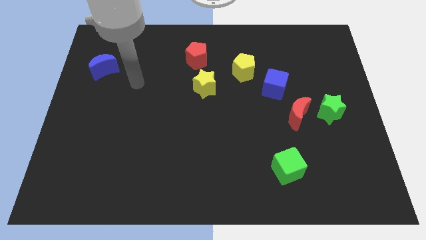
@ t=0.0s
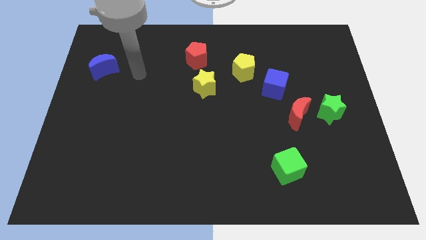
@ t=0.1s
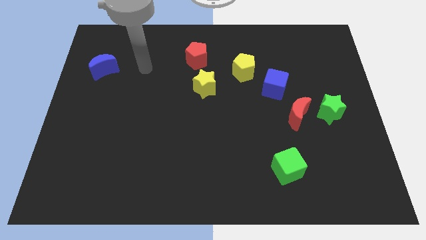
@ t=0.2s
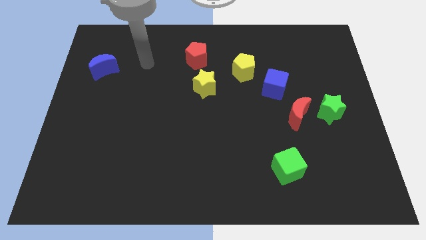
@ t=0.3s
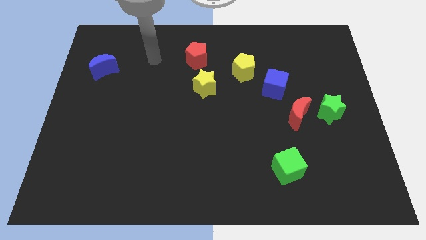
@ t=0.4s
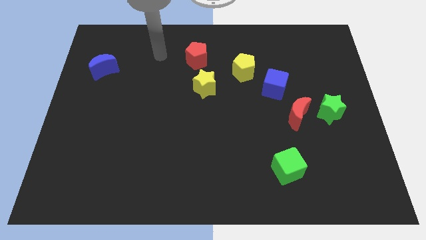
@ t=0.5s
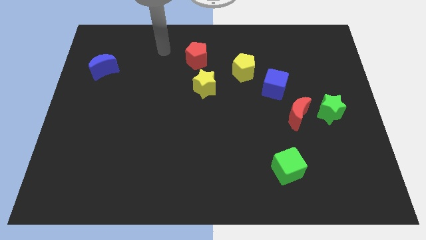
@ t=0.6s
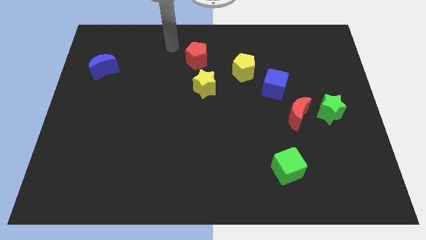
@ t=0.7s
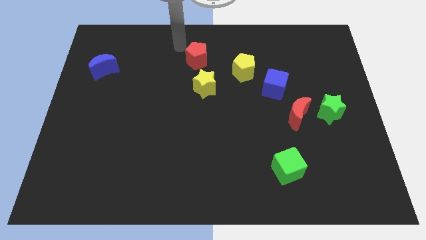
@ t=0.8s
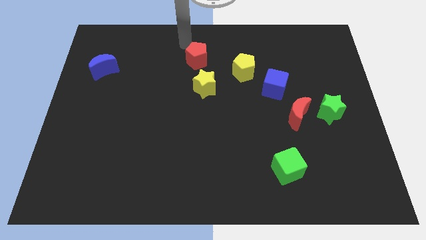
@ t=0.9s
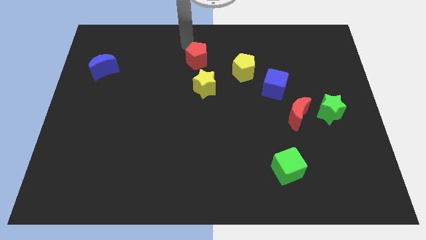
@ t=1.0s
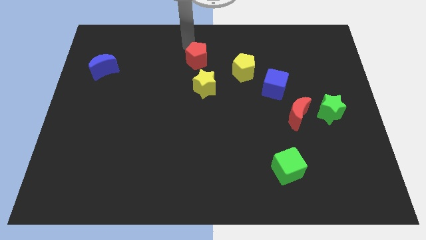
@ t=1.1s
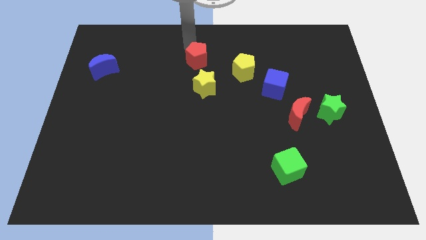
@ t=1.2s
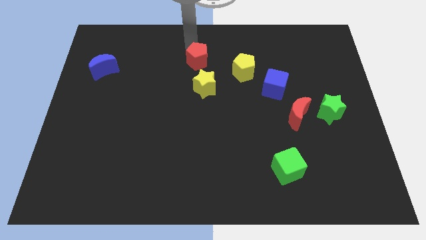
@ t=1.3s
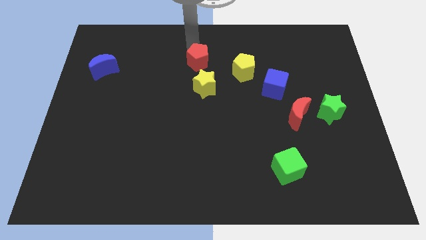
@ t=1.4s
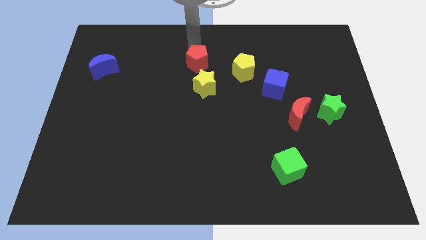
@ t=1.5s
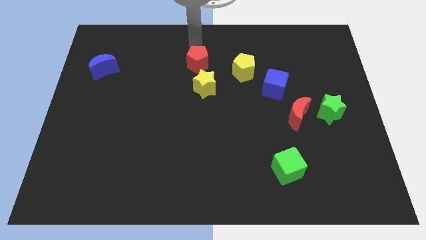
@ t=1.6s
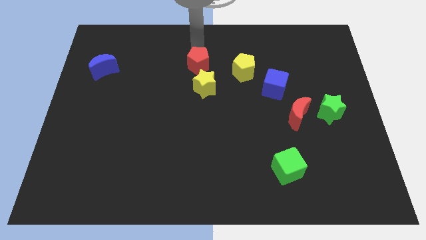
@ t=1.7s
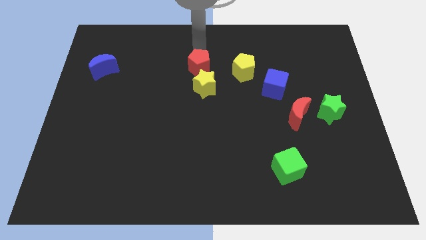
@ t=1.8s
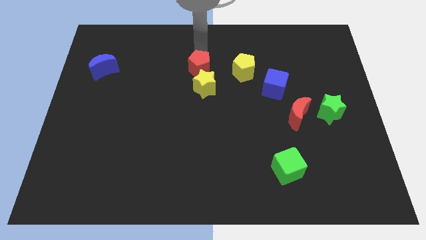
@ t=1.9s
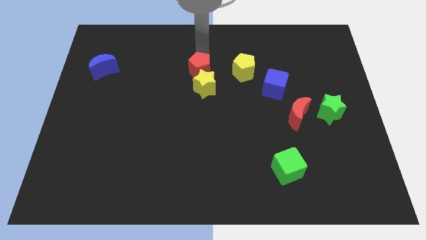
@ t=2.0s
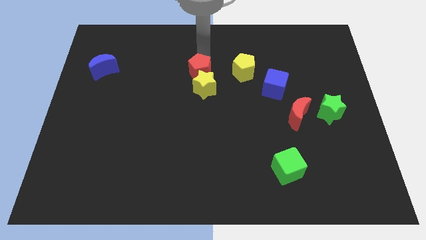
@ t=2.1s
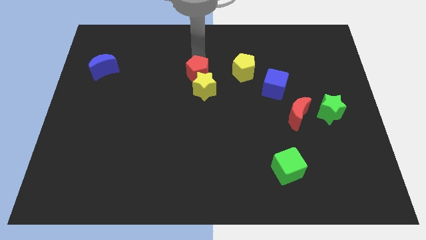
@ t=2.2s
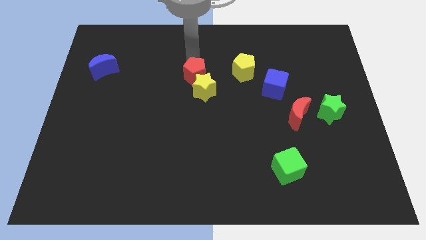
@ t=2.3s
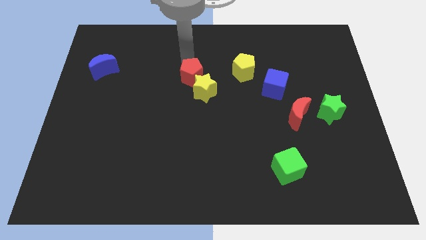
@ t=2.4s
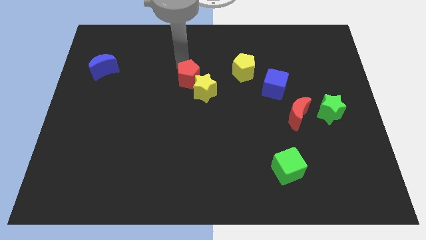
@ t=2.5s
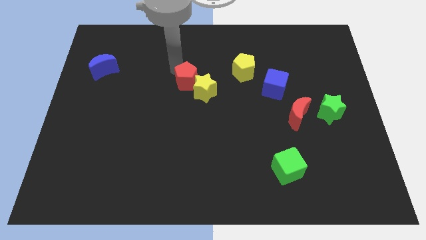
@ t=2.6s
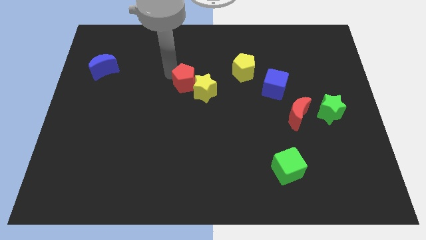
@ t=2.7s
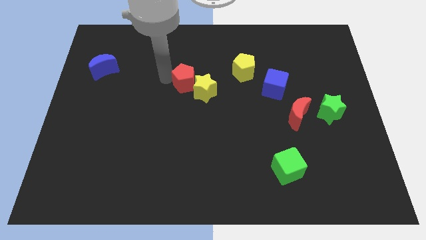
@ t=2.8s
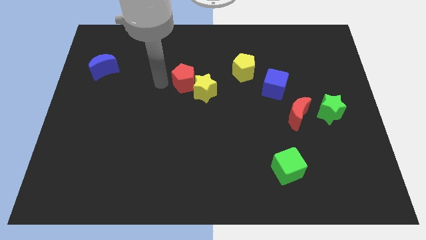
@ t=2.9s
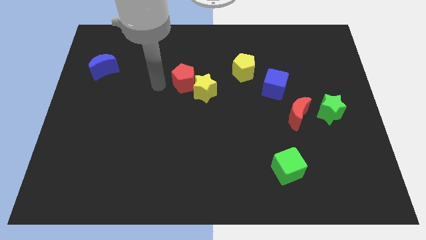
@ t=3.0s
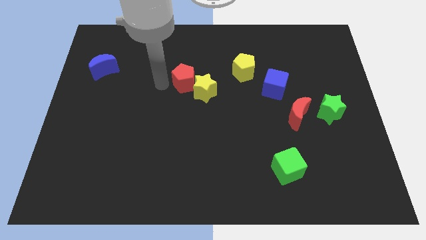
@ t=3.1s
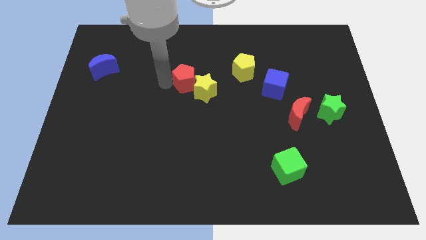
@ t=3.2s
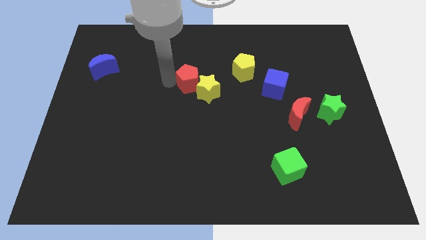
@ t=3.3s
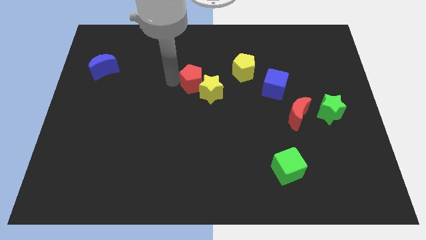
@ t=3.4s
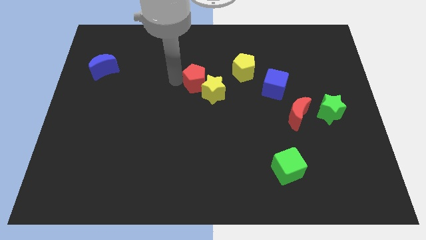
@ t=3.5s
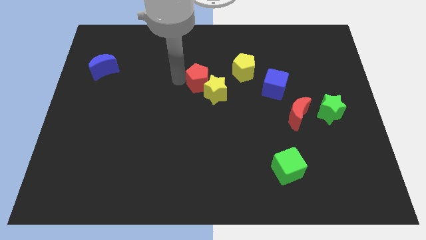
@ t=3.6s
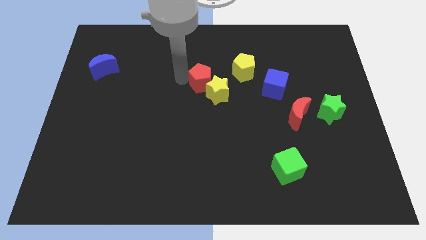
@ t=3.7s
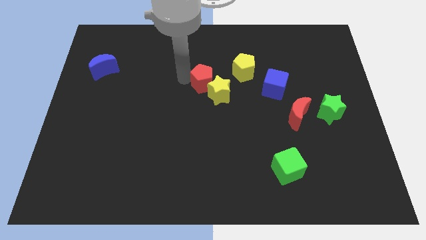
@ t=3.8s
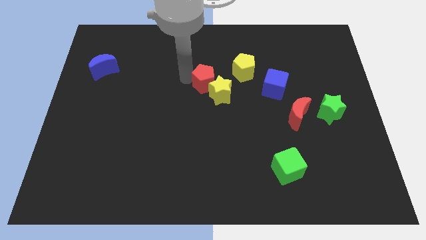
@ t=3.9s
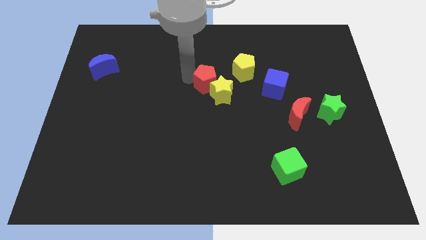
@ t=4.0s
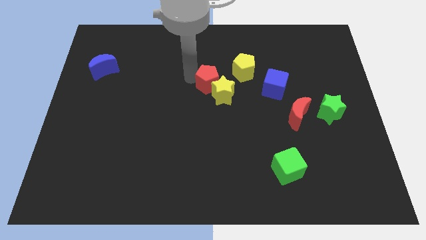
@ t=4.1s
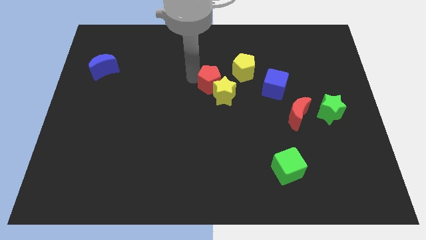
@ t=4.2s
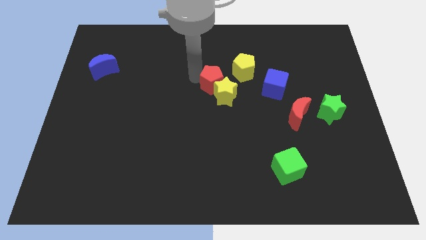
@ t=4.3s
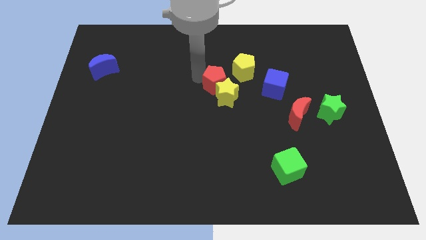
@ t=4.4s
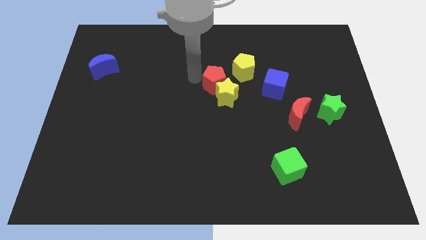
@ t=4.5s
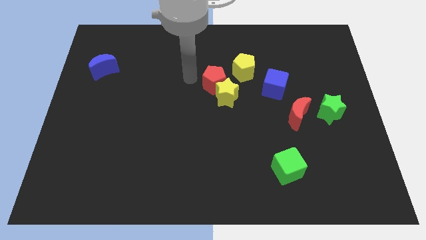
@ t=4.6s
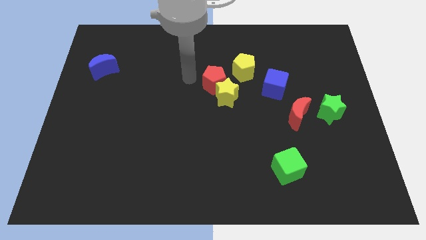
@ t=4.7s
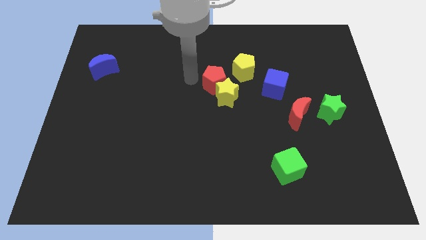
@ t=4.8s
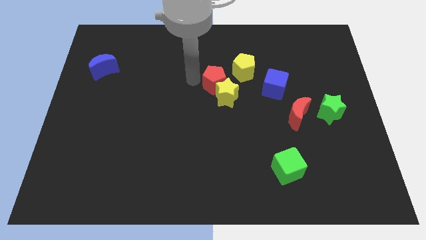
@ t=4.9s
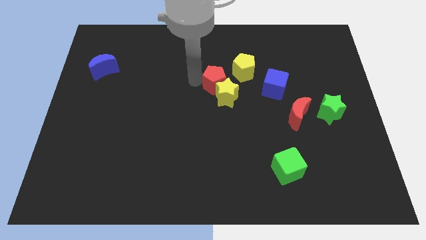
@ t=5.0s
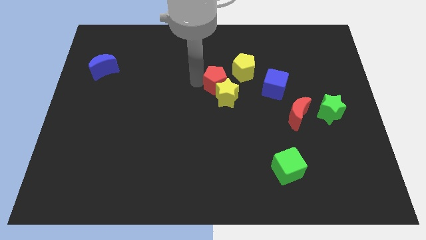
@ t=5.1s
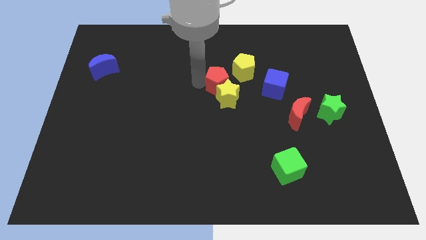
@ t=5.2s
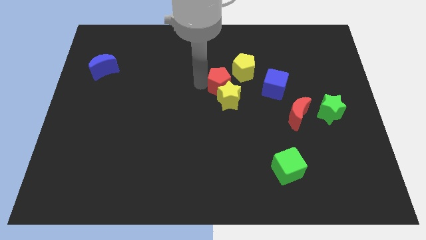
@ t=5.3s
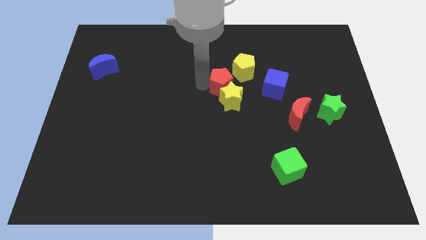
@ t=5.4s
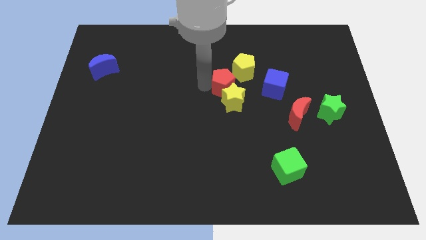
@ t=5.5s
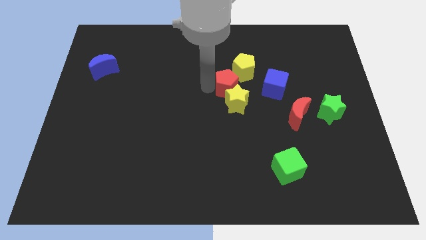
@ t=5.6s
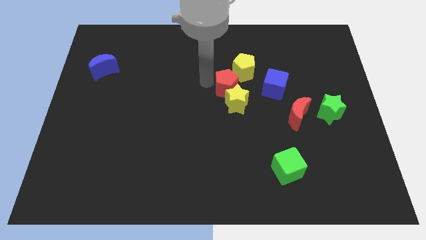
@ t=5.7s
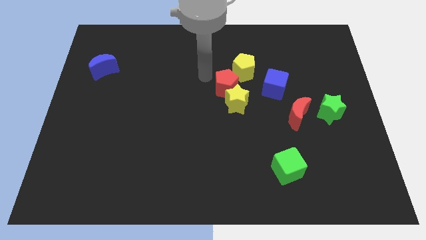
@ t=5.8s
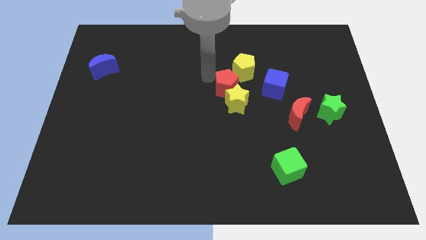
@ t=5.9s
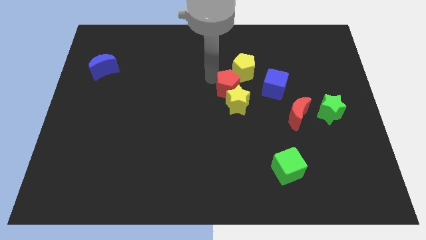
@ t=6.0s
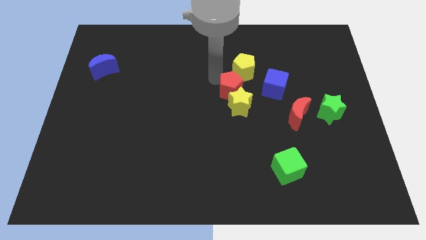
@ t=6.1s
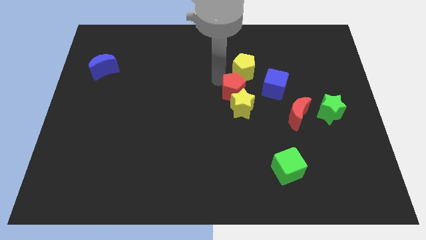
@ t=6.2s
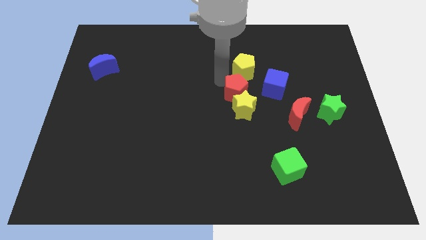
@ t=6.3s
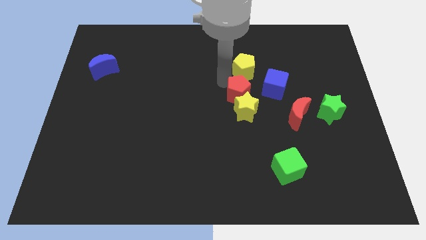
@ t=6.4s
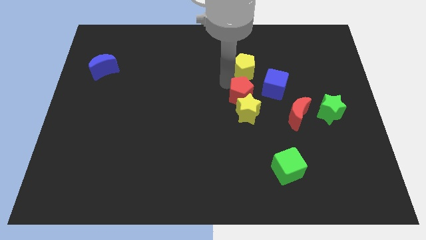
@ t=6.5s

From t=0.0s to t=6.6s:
push the red pentagon to the bottom left side of the blue cube

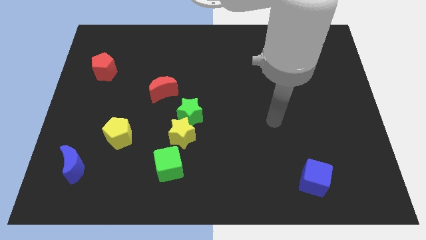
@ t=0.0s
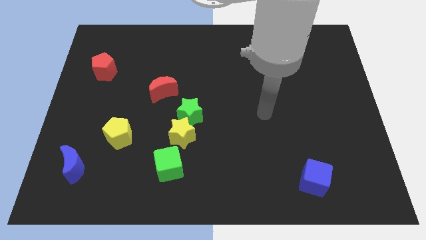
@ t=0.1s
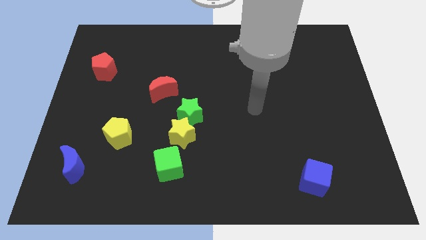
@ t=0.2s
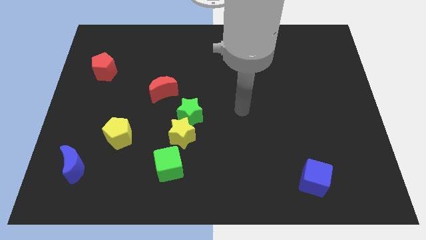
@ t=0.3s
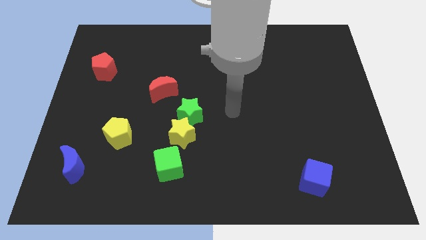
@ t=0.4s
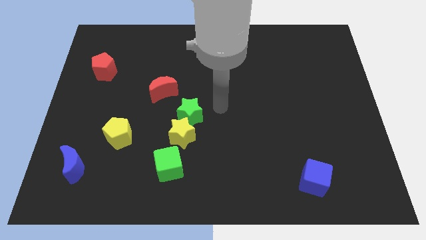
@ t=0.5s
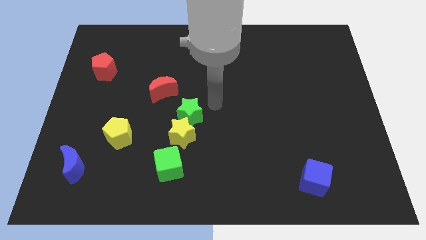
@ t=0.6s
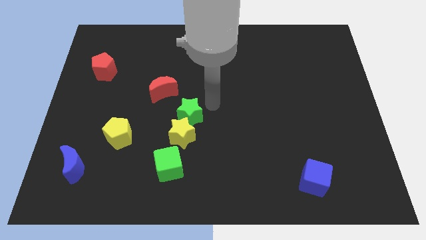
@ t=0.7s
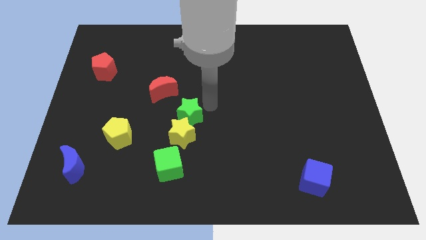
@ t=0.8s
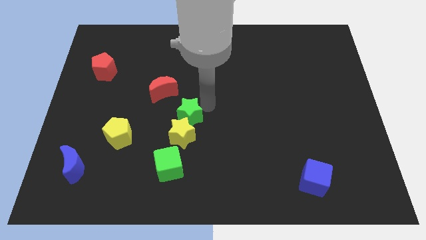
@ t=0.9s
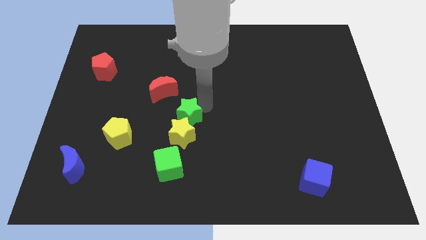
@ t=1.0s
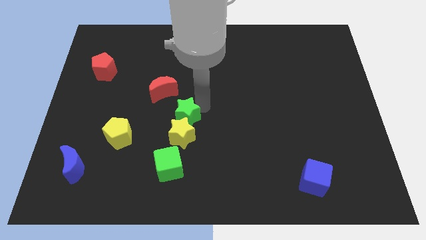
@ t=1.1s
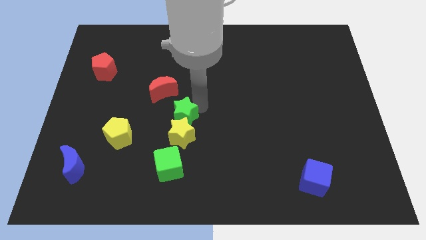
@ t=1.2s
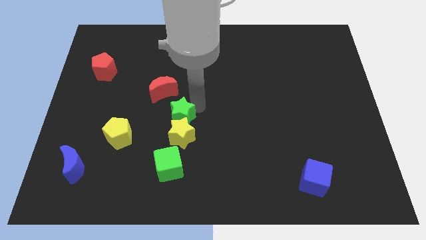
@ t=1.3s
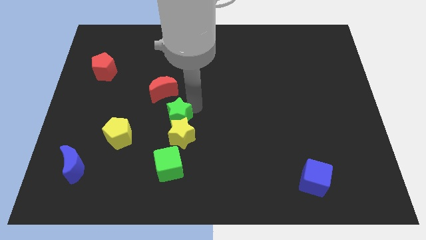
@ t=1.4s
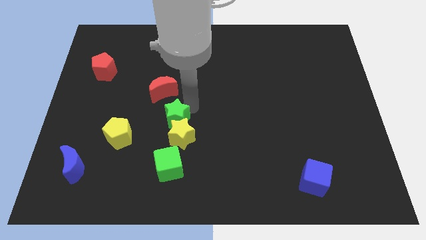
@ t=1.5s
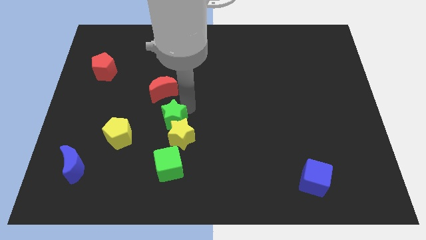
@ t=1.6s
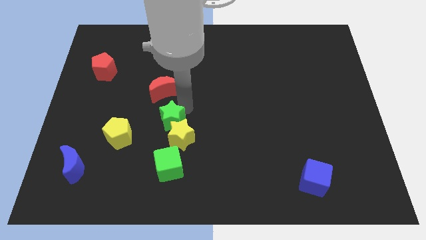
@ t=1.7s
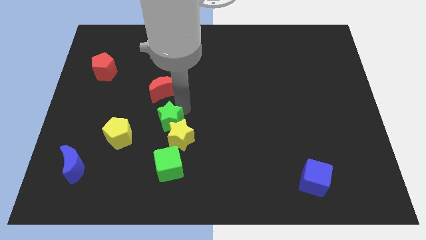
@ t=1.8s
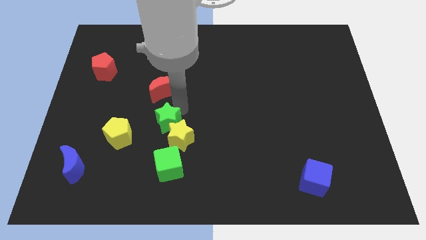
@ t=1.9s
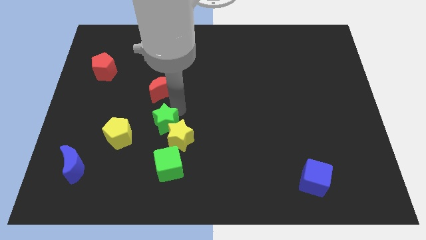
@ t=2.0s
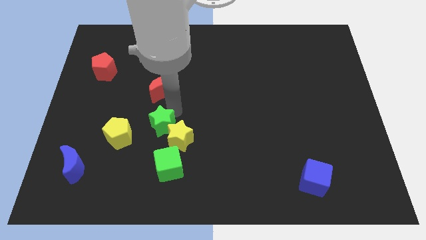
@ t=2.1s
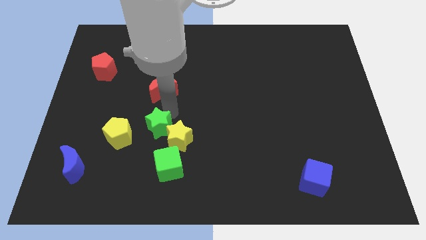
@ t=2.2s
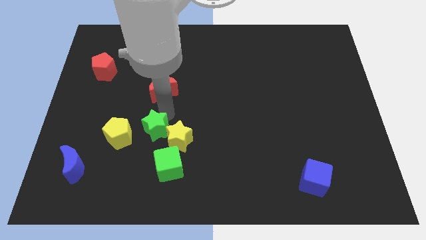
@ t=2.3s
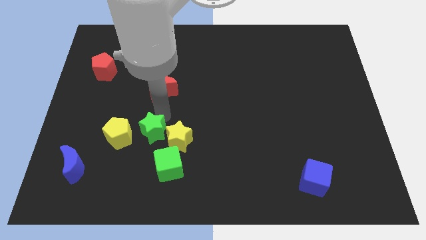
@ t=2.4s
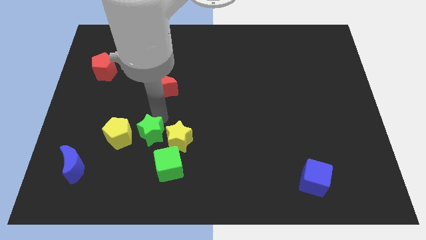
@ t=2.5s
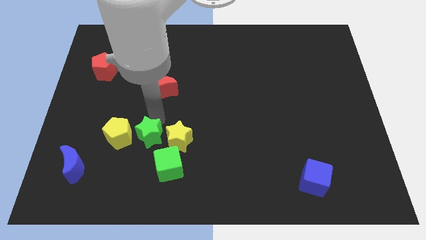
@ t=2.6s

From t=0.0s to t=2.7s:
push the green star to the bottom right side of the yellow pentagon
